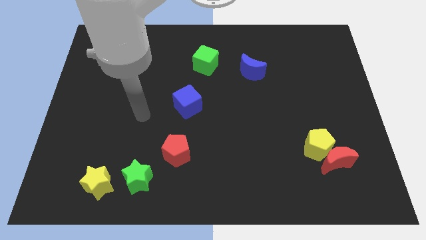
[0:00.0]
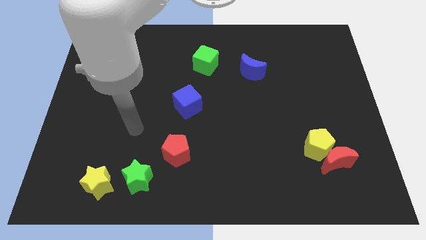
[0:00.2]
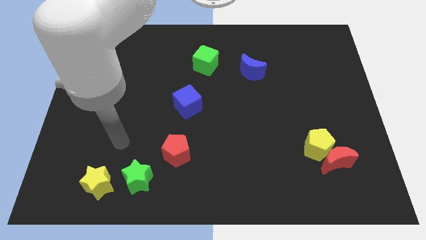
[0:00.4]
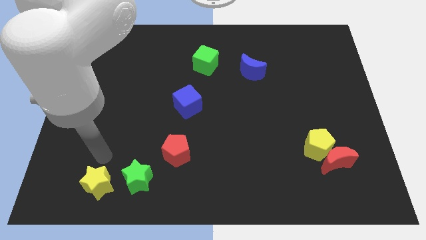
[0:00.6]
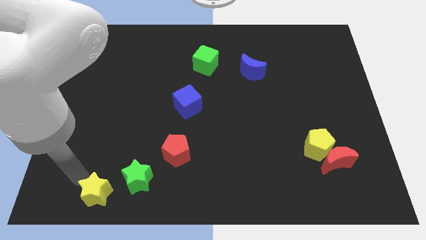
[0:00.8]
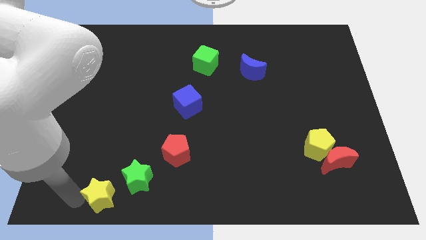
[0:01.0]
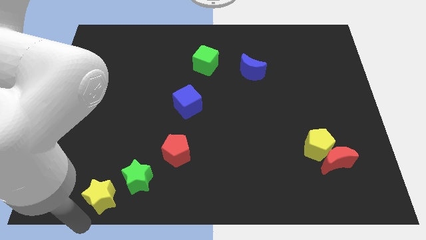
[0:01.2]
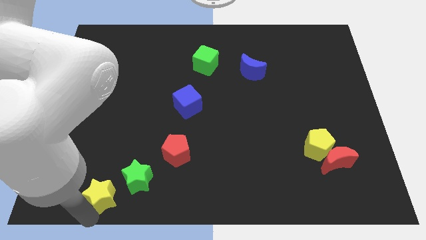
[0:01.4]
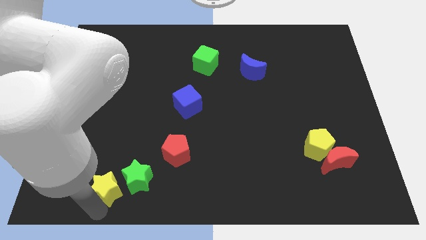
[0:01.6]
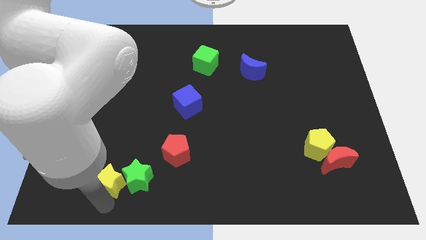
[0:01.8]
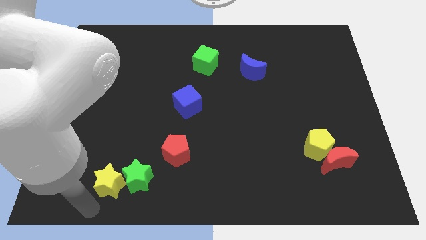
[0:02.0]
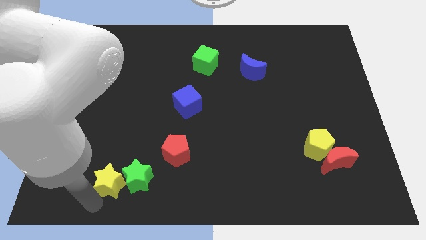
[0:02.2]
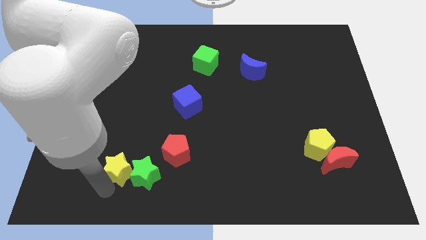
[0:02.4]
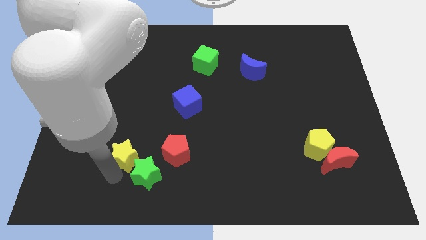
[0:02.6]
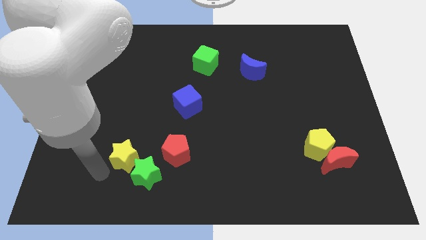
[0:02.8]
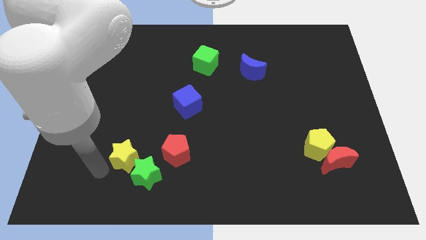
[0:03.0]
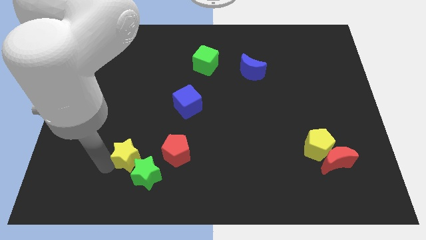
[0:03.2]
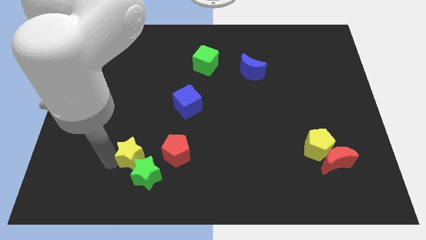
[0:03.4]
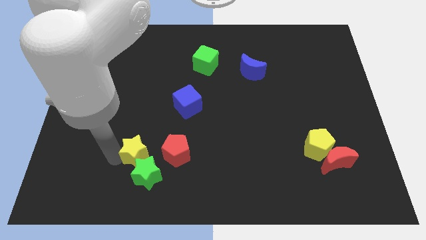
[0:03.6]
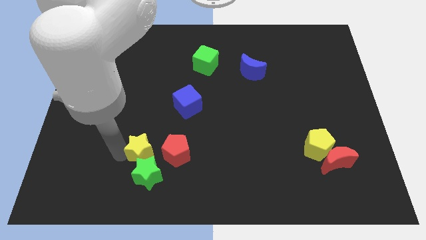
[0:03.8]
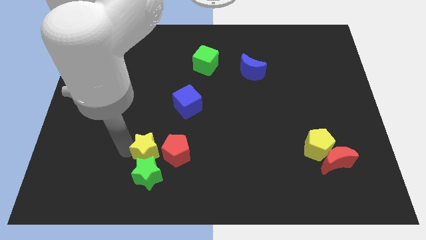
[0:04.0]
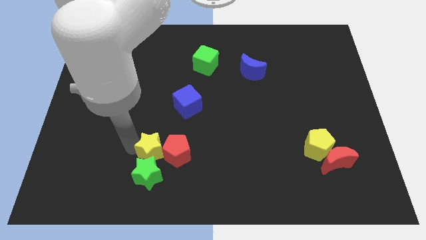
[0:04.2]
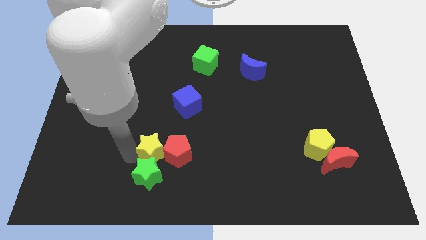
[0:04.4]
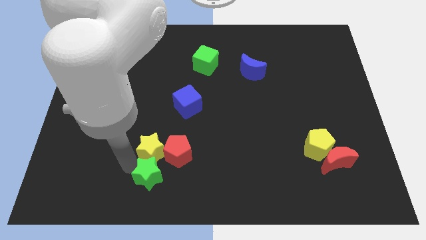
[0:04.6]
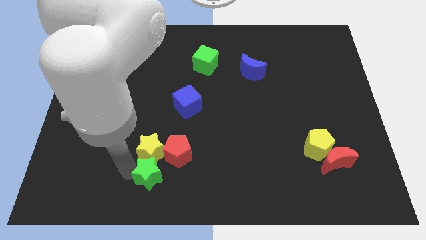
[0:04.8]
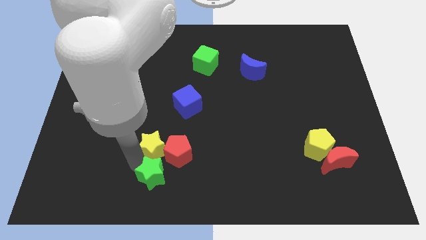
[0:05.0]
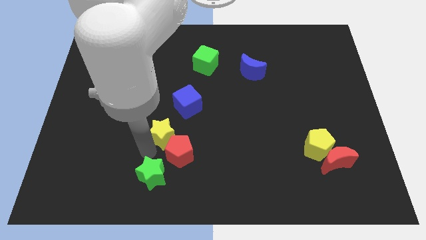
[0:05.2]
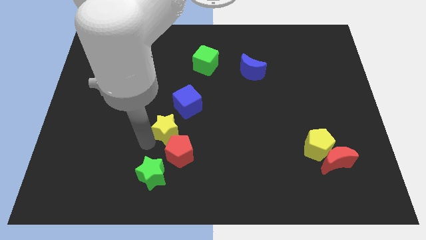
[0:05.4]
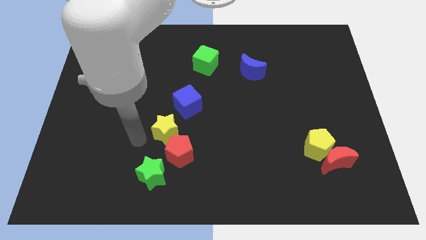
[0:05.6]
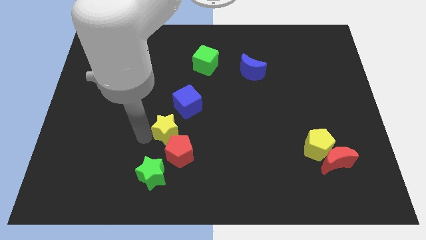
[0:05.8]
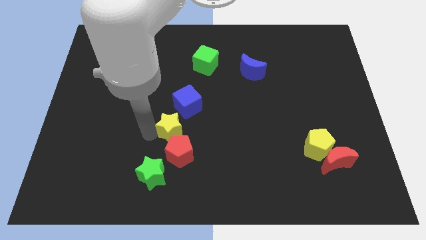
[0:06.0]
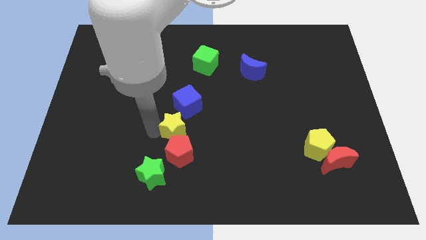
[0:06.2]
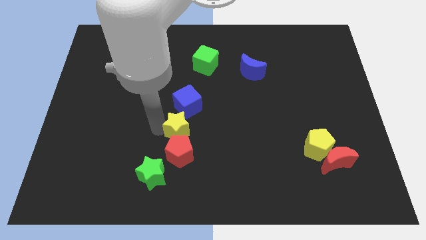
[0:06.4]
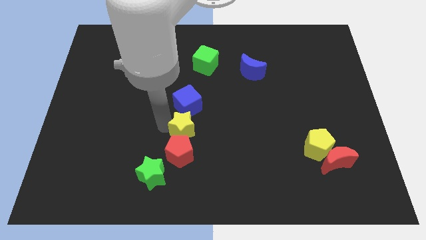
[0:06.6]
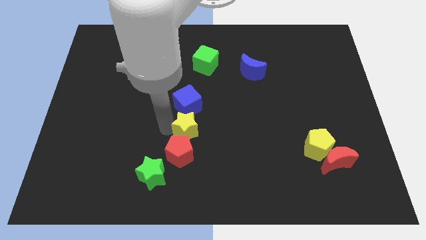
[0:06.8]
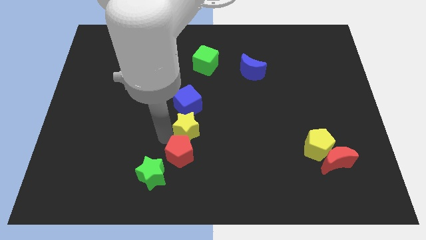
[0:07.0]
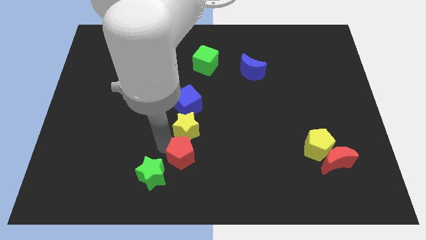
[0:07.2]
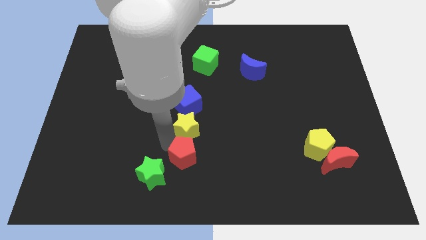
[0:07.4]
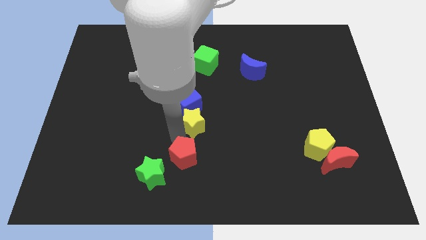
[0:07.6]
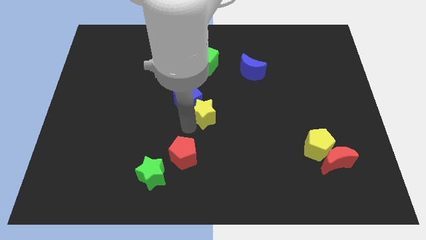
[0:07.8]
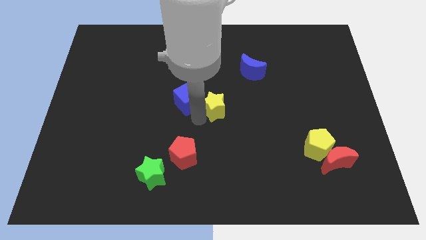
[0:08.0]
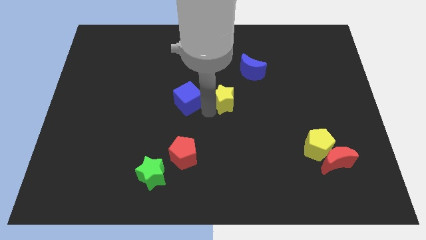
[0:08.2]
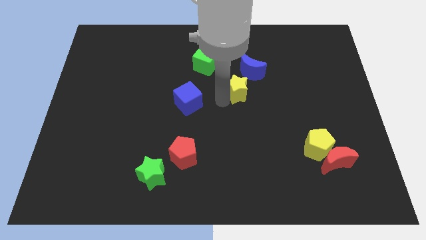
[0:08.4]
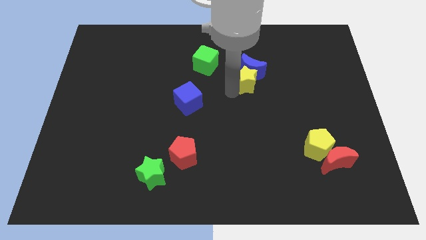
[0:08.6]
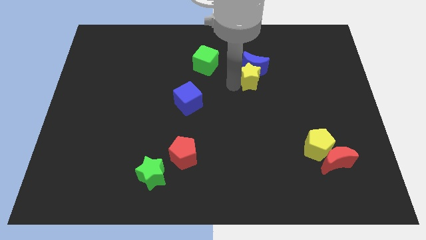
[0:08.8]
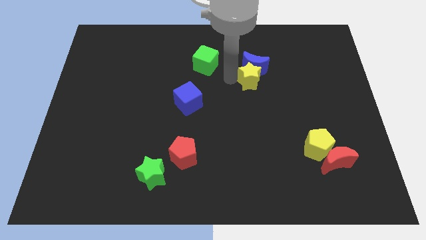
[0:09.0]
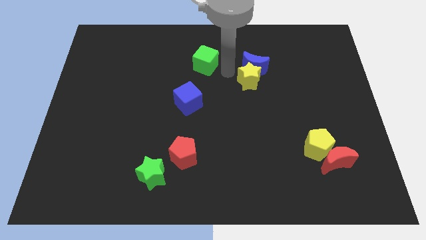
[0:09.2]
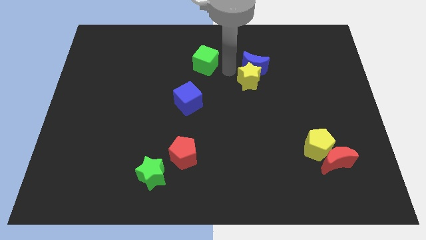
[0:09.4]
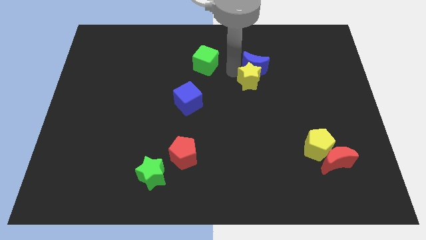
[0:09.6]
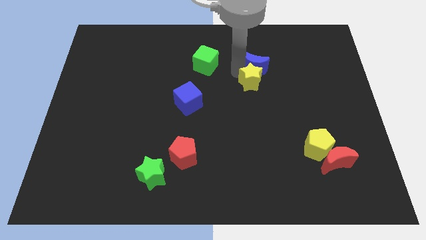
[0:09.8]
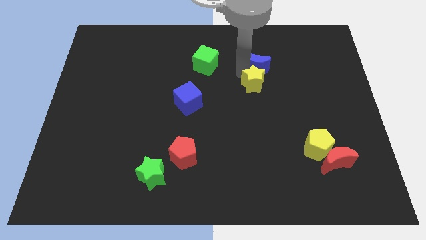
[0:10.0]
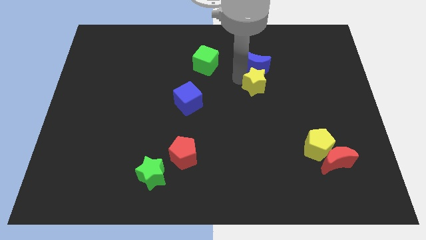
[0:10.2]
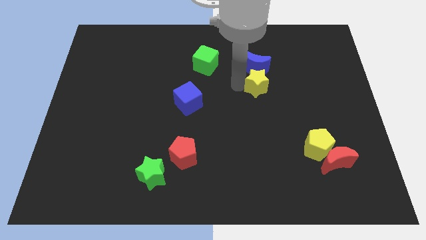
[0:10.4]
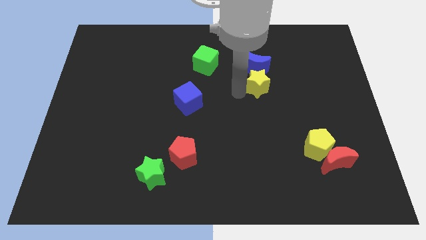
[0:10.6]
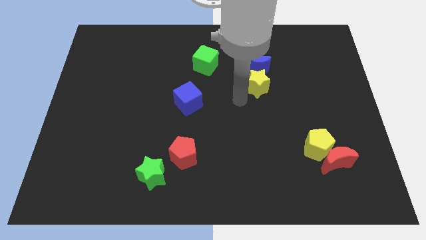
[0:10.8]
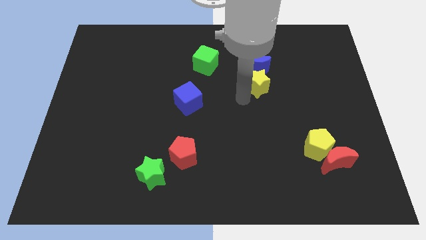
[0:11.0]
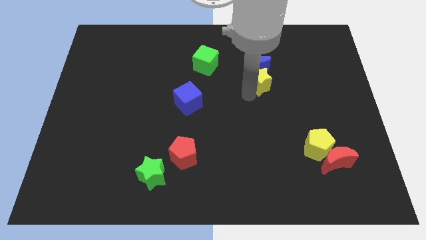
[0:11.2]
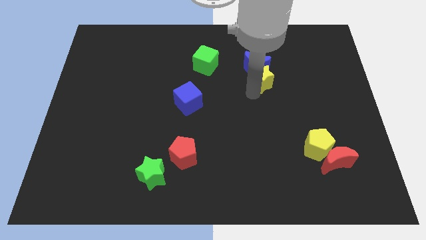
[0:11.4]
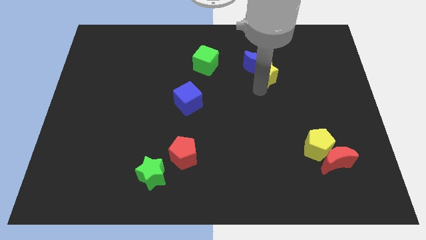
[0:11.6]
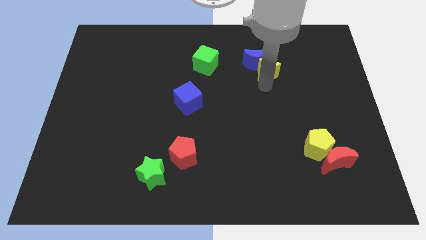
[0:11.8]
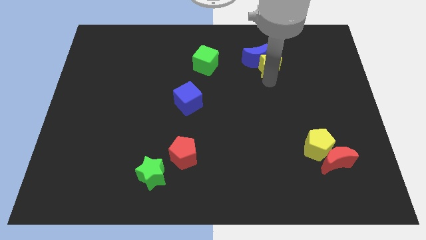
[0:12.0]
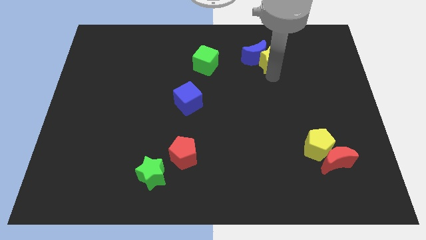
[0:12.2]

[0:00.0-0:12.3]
put the yellow star to the top right side of the blue moon

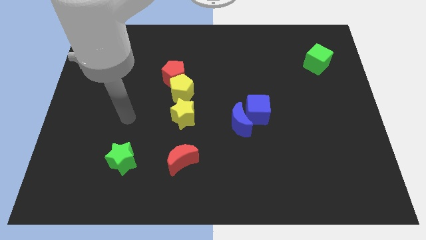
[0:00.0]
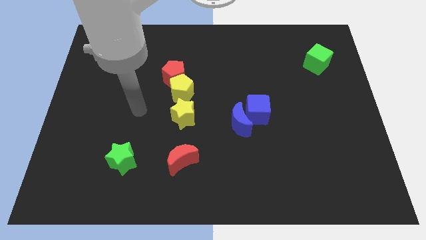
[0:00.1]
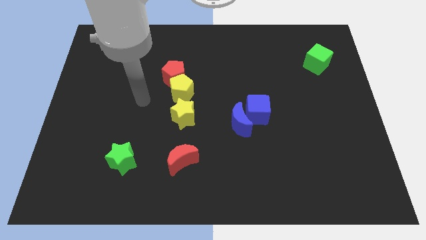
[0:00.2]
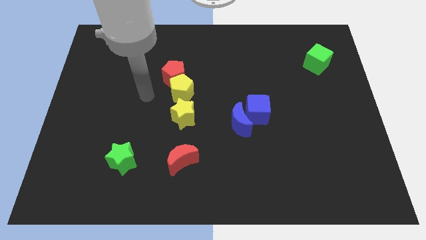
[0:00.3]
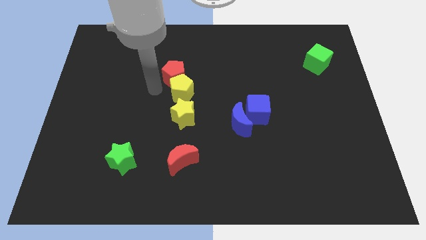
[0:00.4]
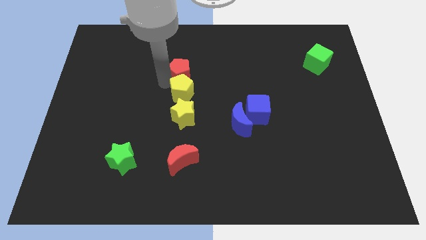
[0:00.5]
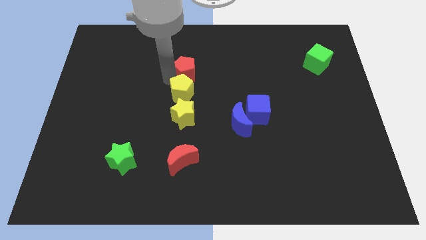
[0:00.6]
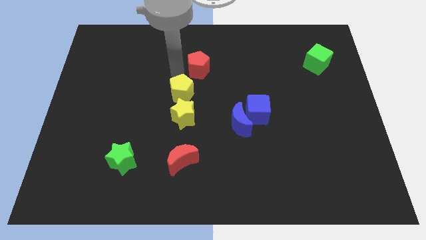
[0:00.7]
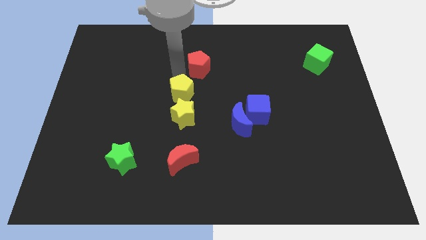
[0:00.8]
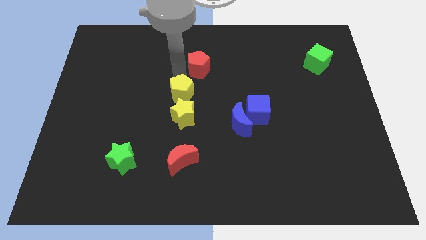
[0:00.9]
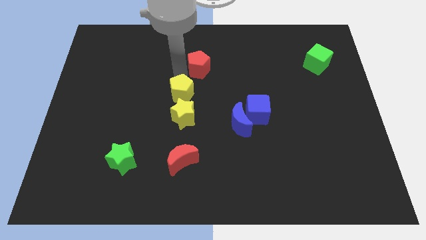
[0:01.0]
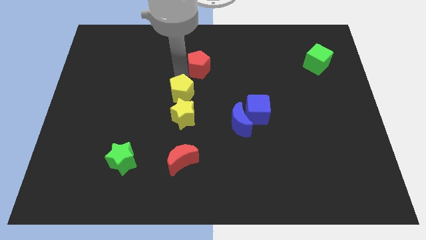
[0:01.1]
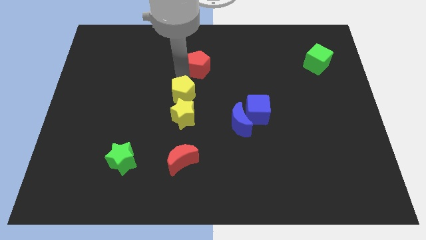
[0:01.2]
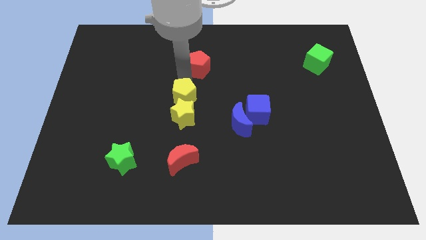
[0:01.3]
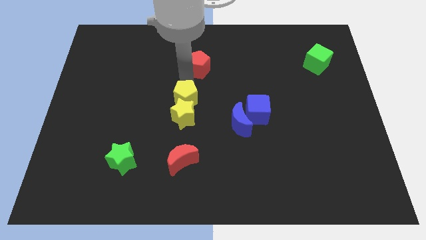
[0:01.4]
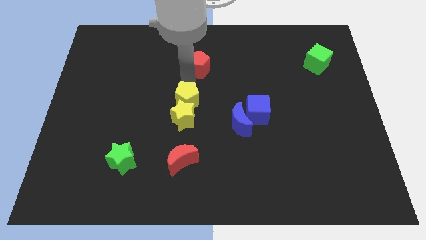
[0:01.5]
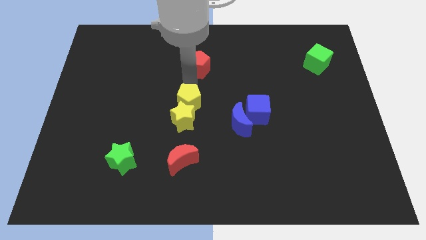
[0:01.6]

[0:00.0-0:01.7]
move the yellow pentagon to the top of the red moon
